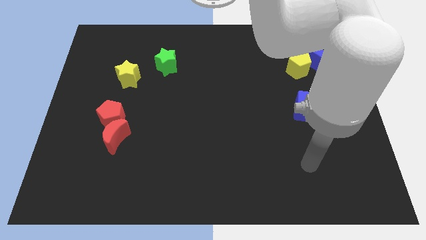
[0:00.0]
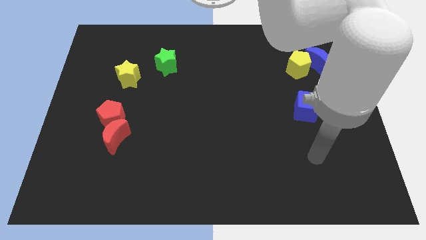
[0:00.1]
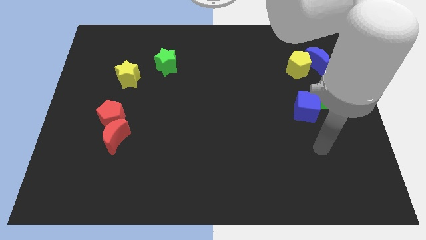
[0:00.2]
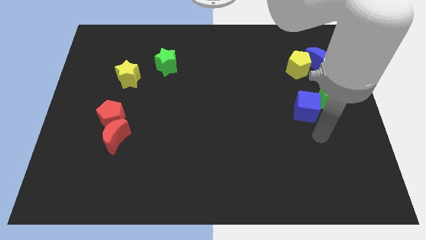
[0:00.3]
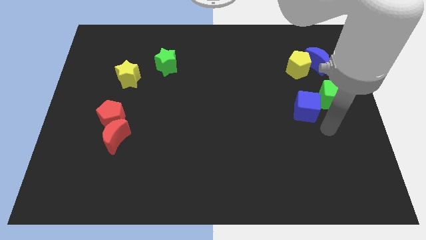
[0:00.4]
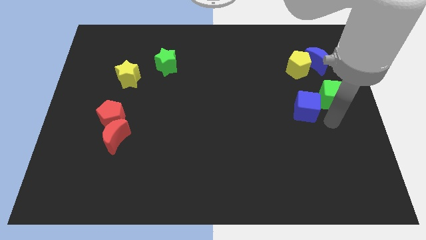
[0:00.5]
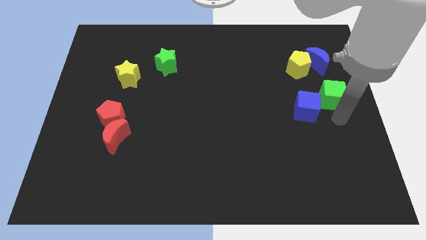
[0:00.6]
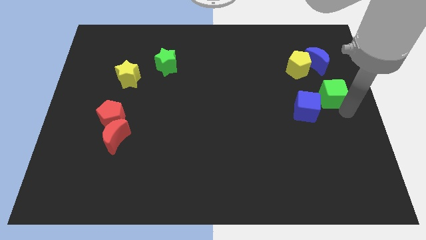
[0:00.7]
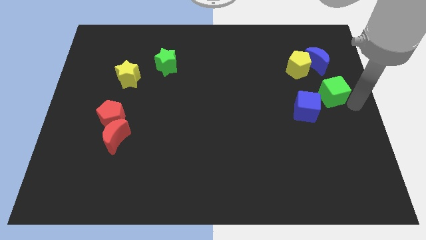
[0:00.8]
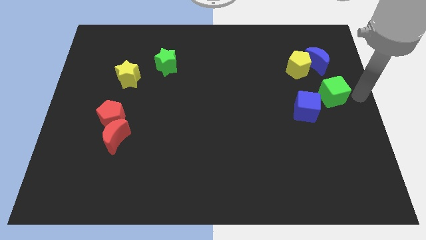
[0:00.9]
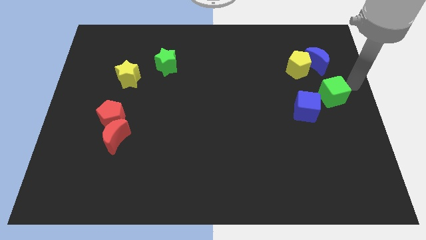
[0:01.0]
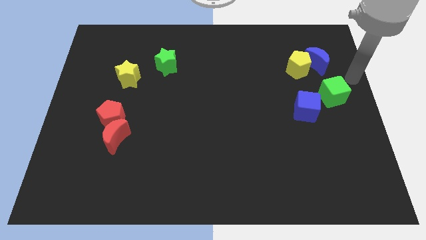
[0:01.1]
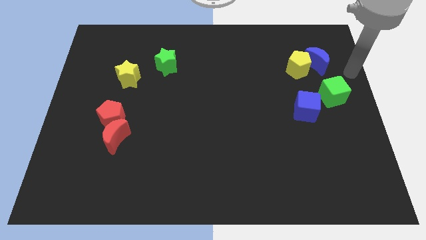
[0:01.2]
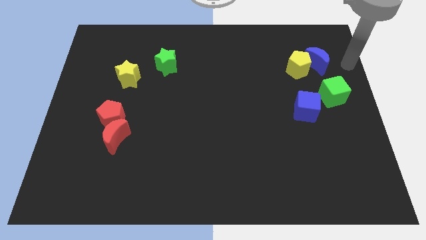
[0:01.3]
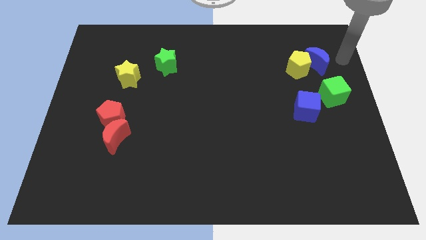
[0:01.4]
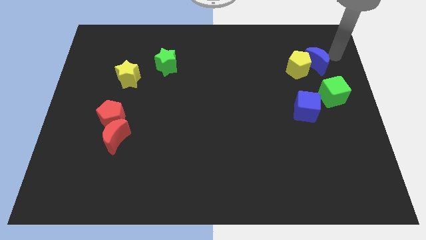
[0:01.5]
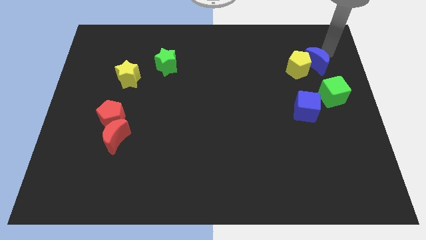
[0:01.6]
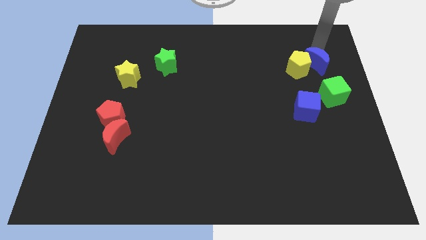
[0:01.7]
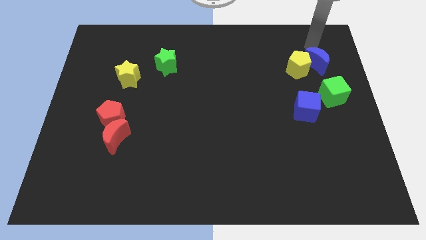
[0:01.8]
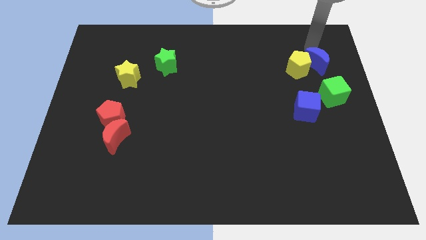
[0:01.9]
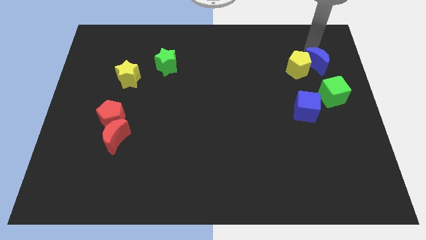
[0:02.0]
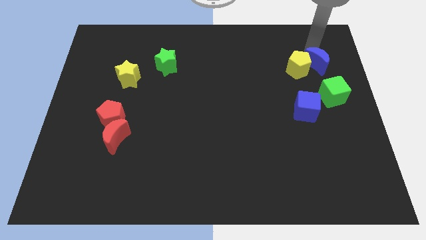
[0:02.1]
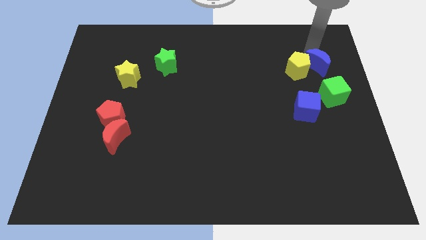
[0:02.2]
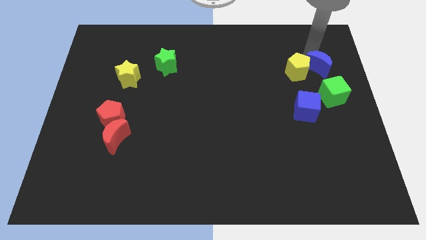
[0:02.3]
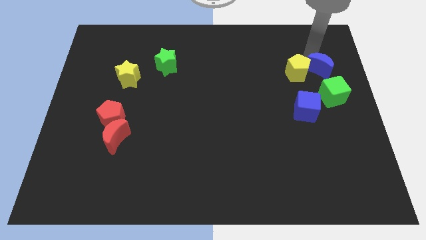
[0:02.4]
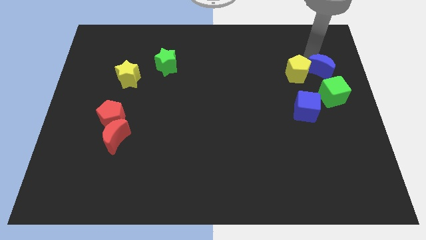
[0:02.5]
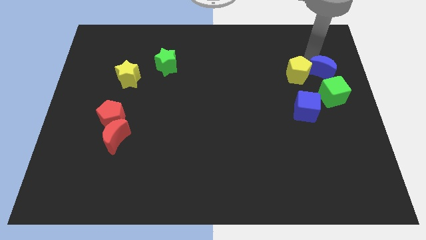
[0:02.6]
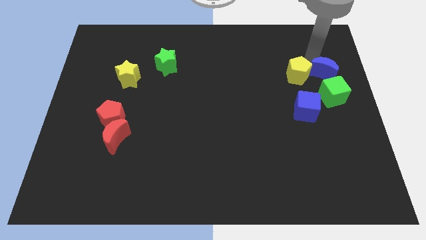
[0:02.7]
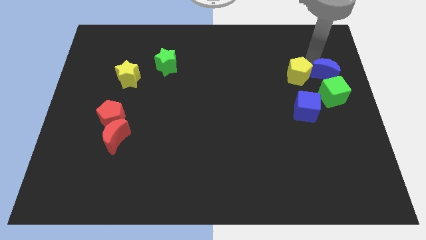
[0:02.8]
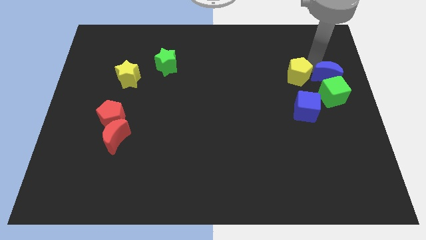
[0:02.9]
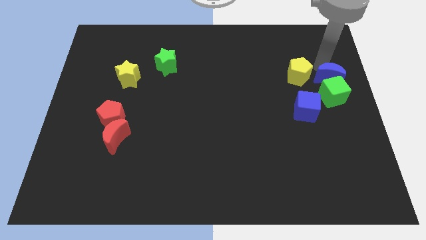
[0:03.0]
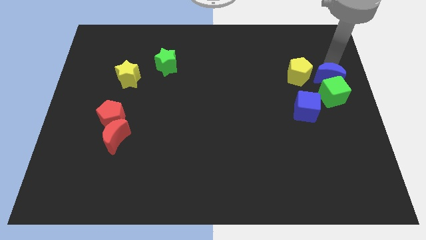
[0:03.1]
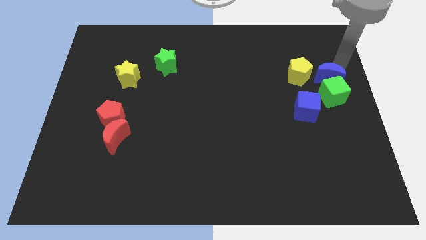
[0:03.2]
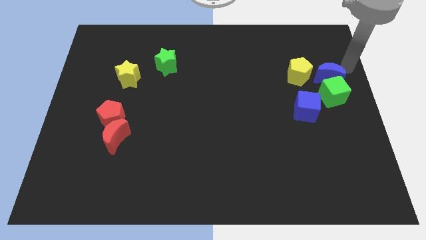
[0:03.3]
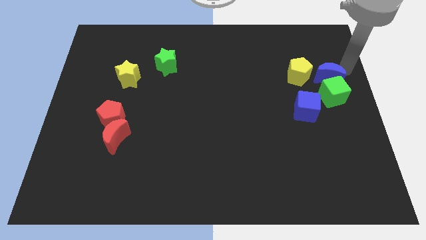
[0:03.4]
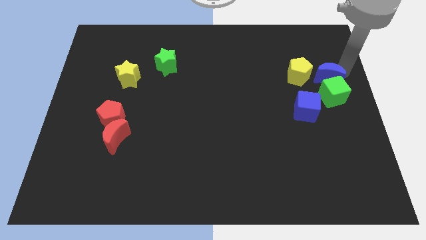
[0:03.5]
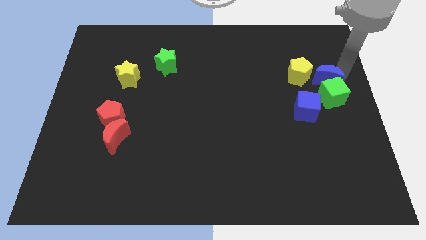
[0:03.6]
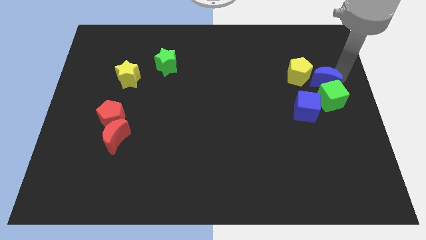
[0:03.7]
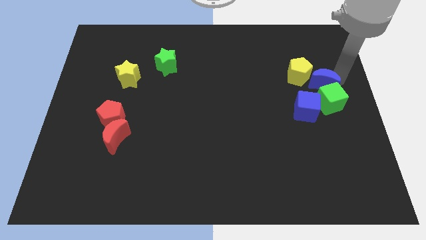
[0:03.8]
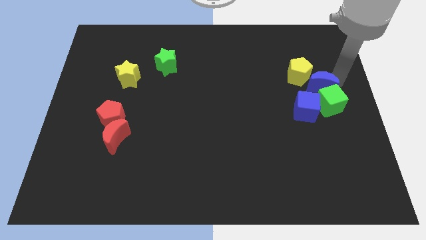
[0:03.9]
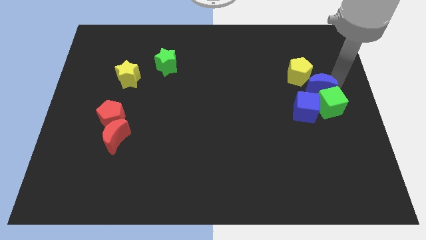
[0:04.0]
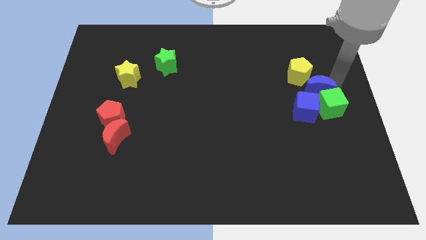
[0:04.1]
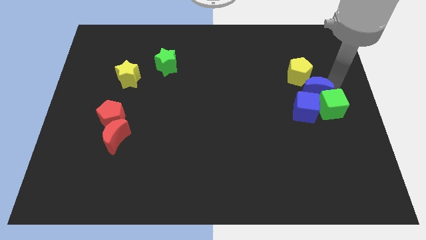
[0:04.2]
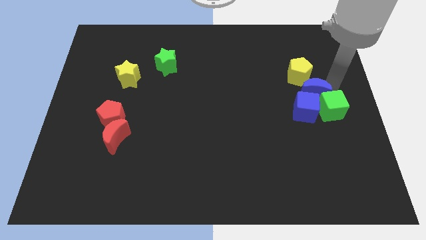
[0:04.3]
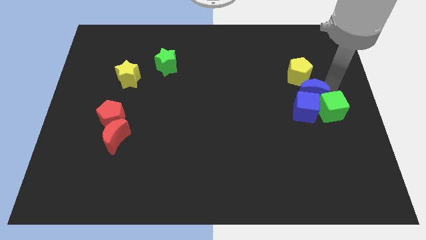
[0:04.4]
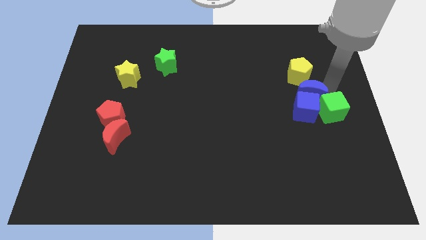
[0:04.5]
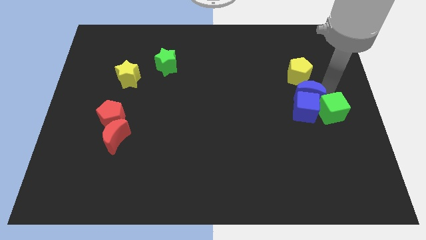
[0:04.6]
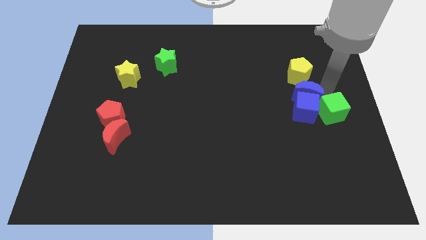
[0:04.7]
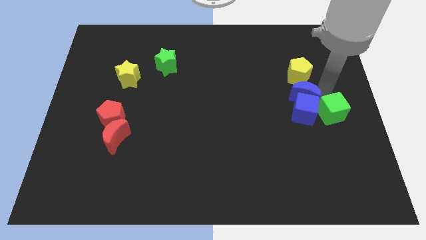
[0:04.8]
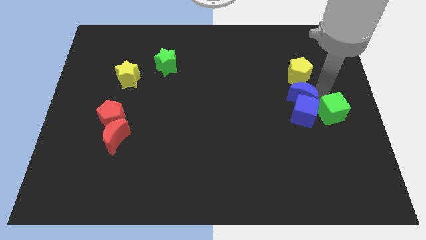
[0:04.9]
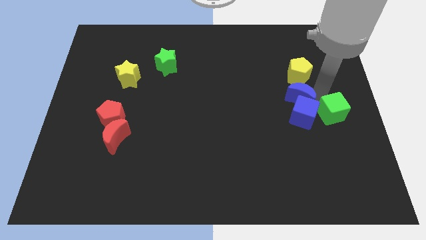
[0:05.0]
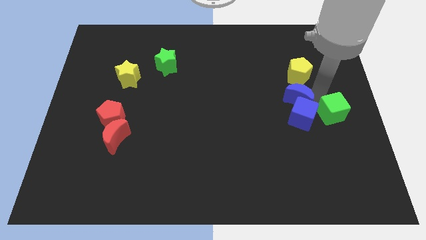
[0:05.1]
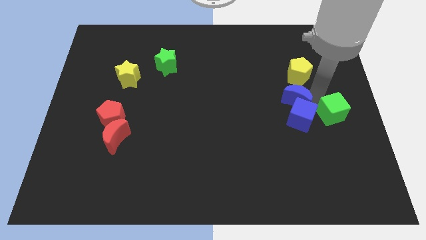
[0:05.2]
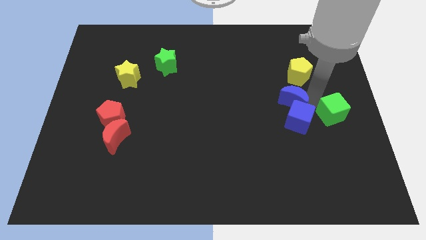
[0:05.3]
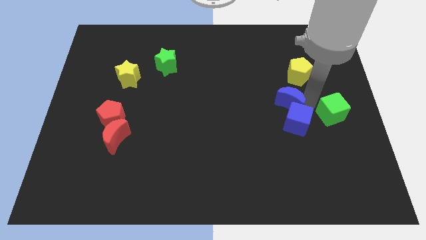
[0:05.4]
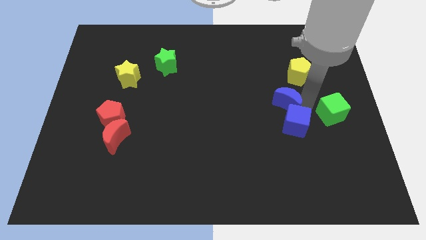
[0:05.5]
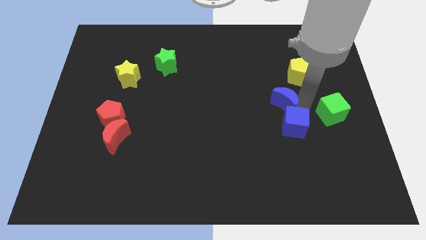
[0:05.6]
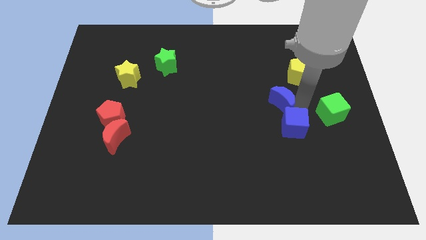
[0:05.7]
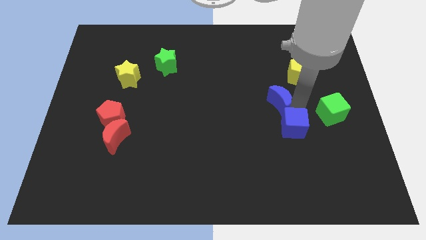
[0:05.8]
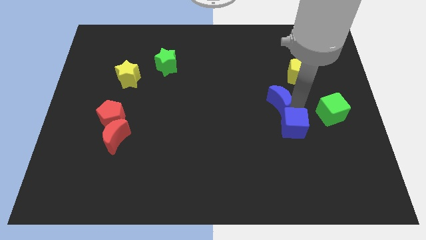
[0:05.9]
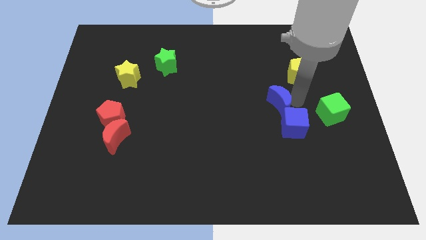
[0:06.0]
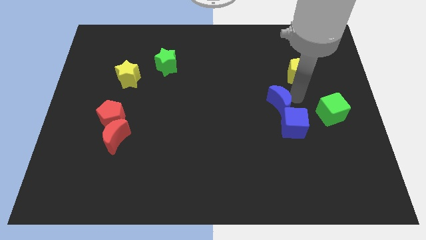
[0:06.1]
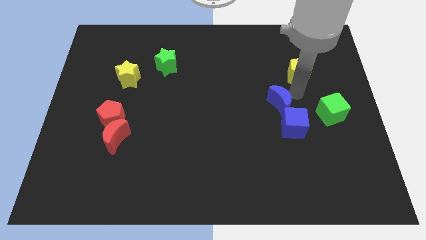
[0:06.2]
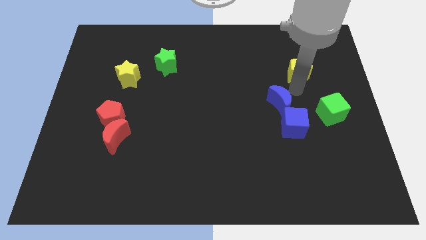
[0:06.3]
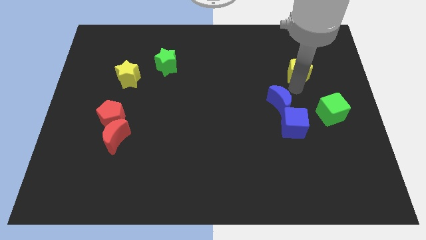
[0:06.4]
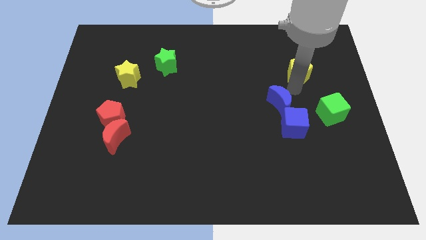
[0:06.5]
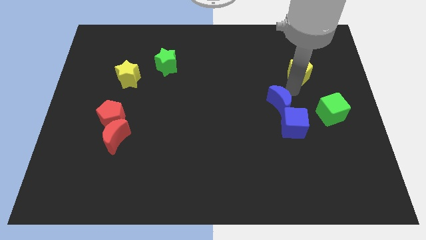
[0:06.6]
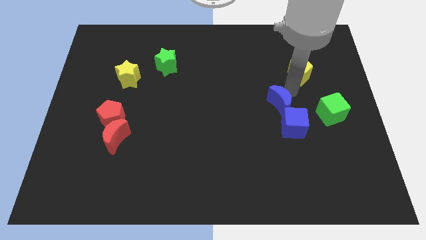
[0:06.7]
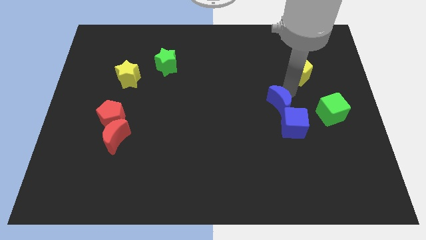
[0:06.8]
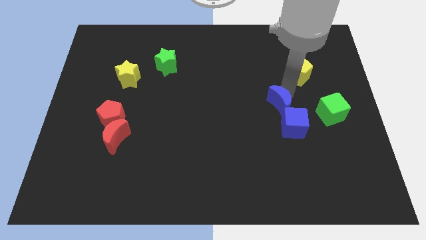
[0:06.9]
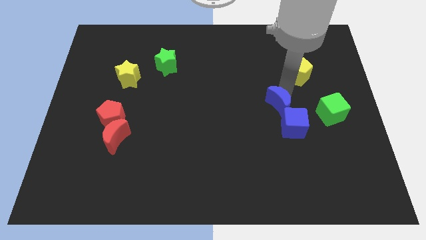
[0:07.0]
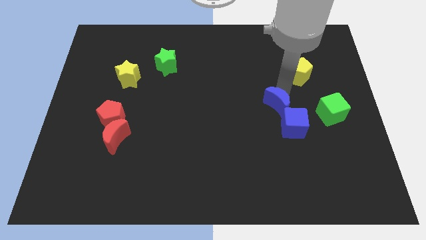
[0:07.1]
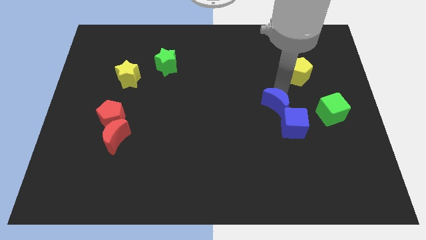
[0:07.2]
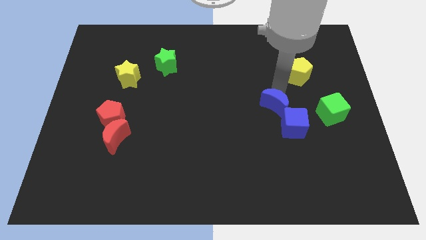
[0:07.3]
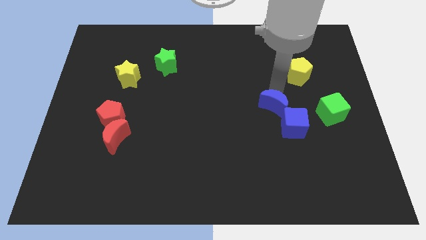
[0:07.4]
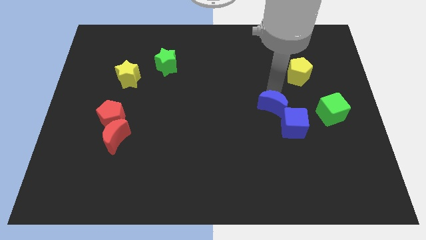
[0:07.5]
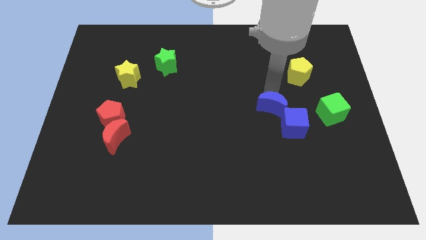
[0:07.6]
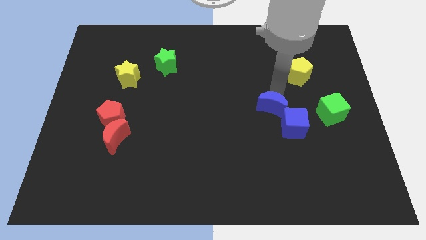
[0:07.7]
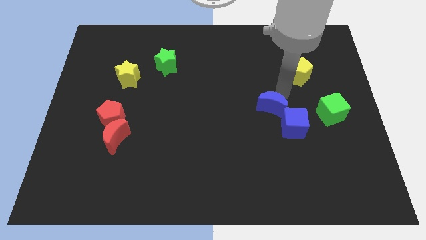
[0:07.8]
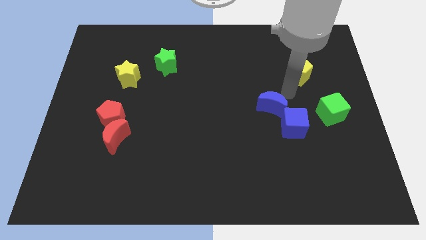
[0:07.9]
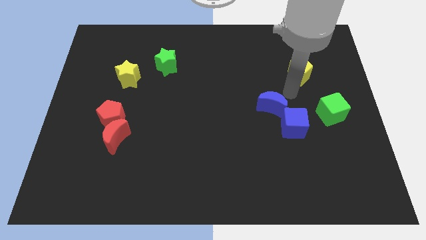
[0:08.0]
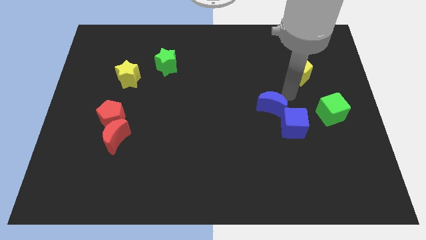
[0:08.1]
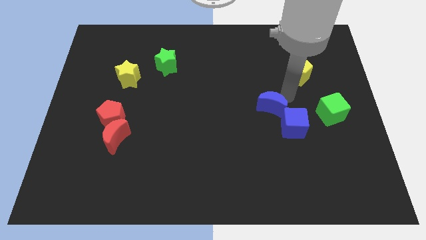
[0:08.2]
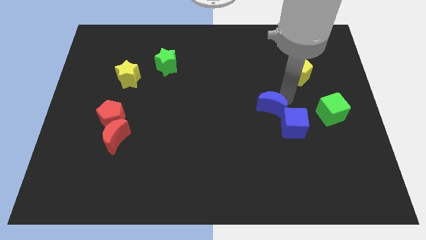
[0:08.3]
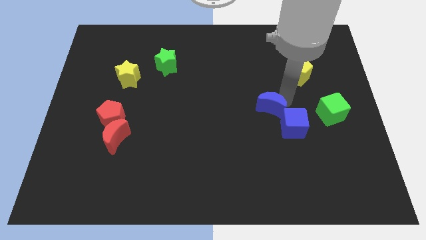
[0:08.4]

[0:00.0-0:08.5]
slide the blue moon downwards and left diagonally
